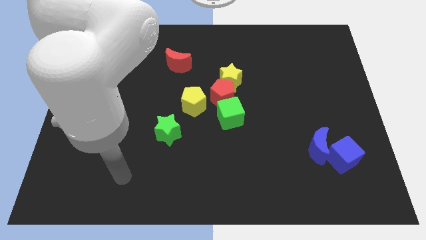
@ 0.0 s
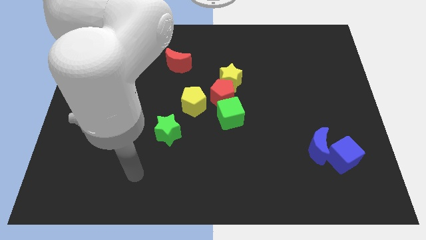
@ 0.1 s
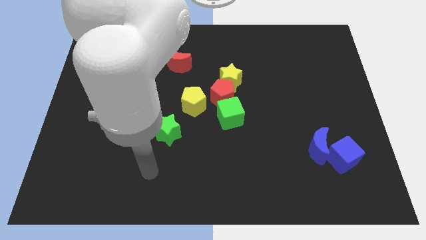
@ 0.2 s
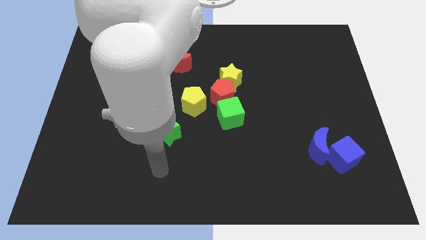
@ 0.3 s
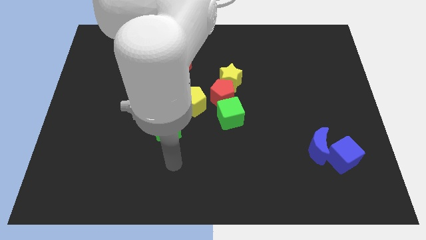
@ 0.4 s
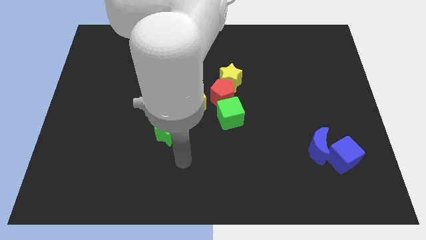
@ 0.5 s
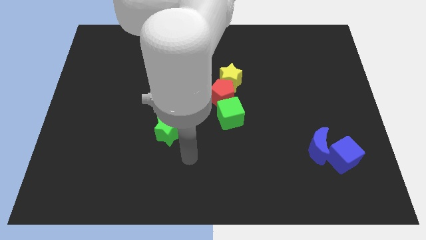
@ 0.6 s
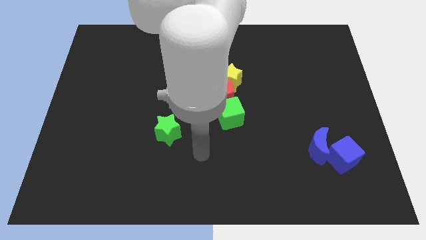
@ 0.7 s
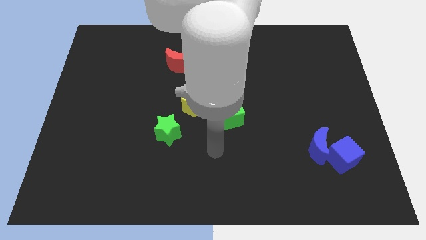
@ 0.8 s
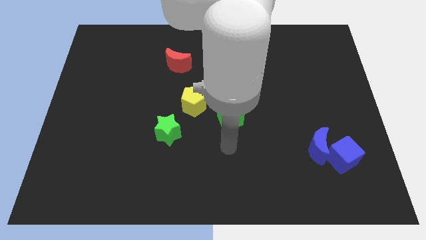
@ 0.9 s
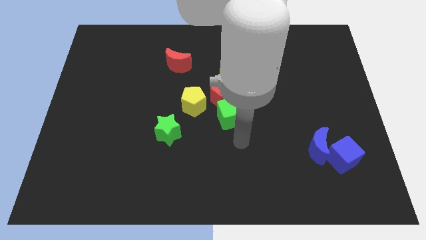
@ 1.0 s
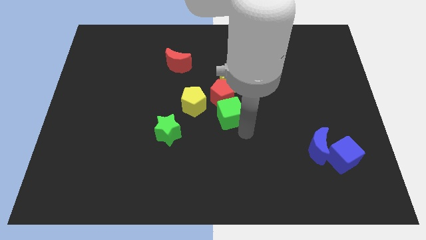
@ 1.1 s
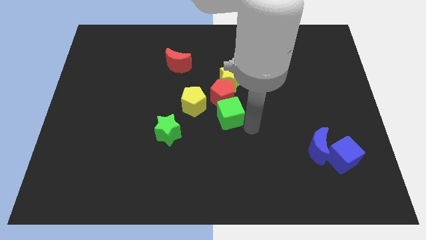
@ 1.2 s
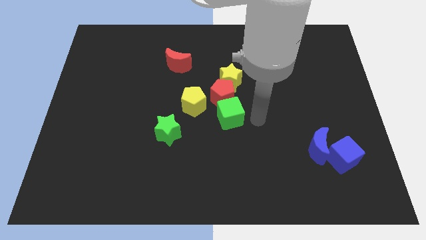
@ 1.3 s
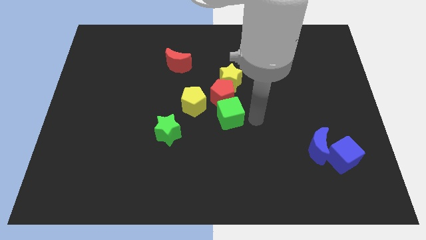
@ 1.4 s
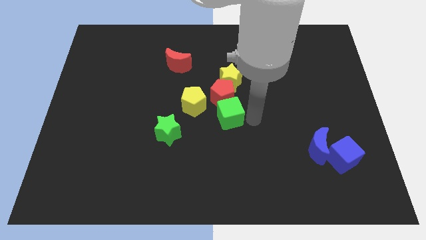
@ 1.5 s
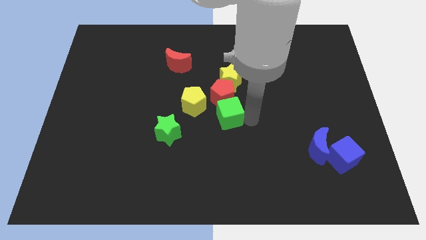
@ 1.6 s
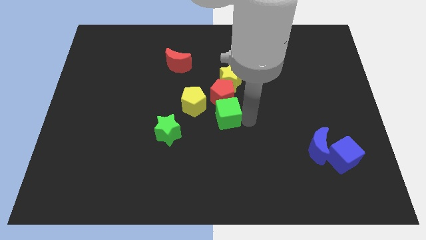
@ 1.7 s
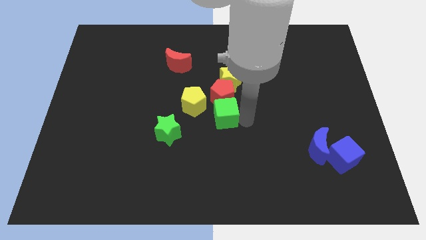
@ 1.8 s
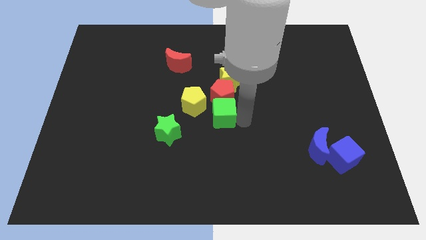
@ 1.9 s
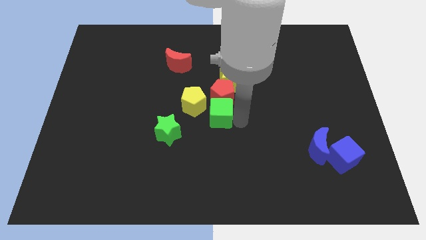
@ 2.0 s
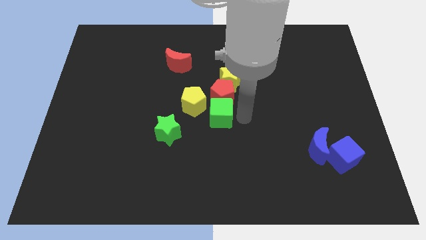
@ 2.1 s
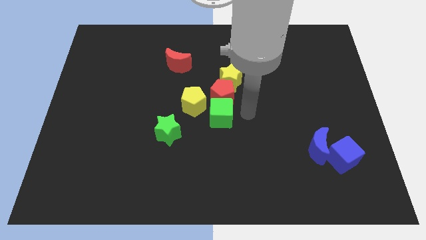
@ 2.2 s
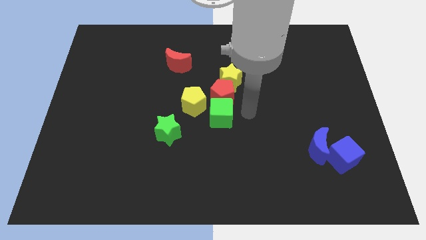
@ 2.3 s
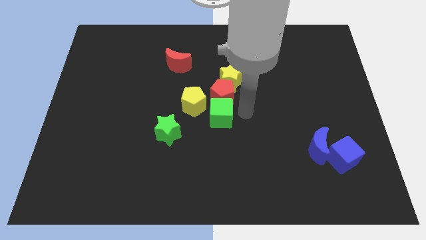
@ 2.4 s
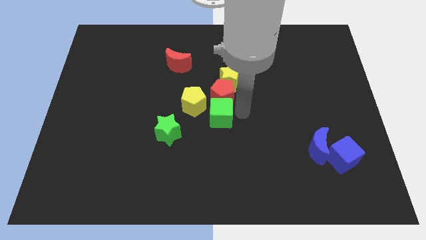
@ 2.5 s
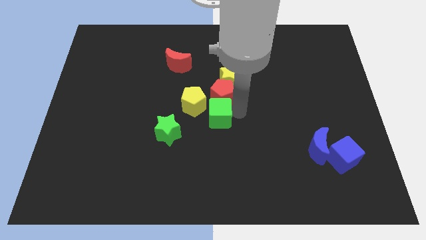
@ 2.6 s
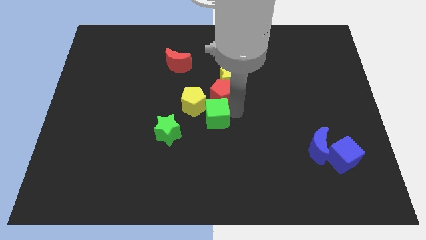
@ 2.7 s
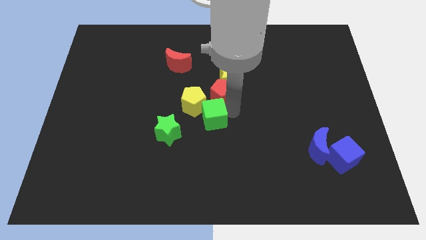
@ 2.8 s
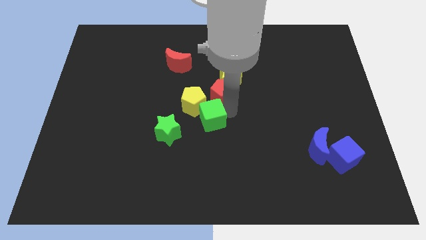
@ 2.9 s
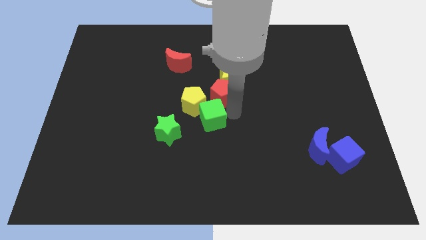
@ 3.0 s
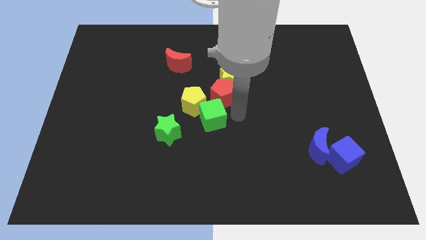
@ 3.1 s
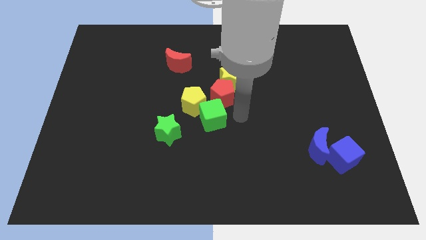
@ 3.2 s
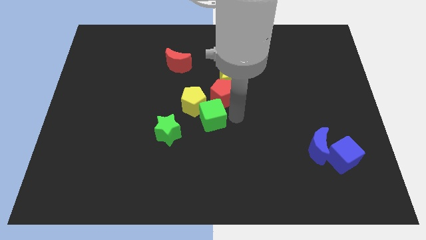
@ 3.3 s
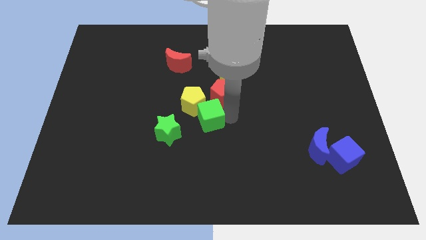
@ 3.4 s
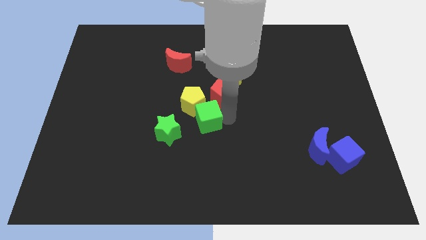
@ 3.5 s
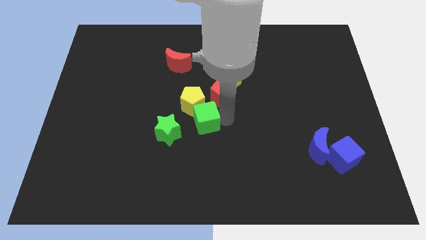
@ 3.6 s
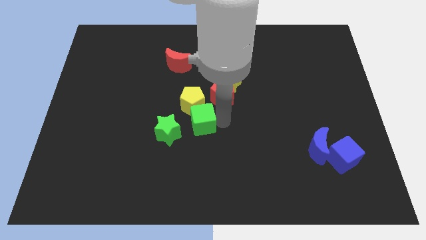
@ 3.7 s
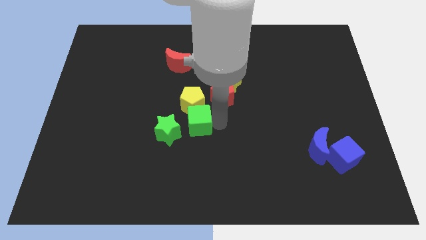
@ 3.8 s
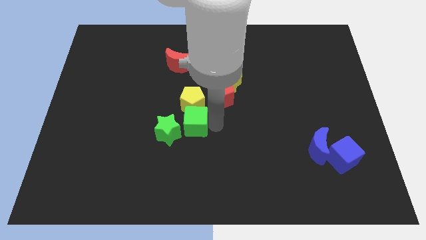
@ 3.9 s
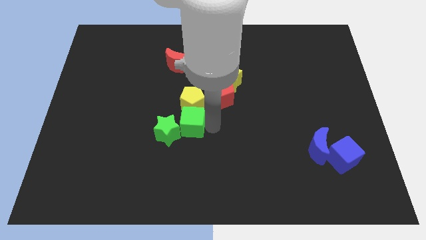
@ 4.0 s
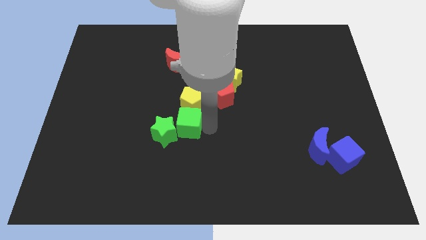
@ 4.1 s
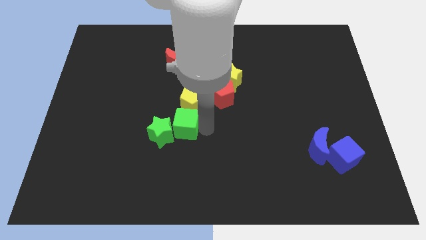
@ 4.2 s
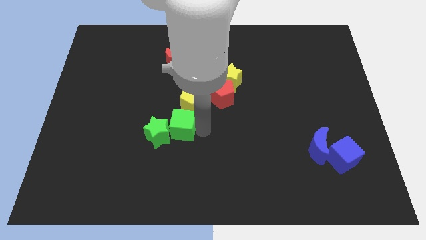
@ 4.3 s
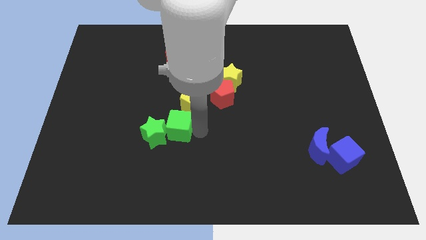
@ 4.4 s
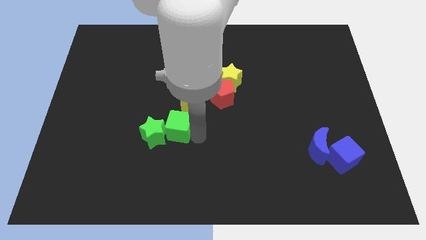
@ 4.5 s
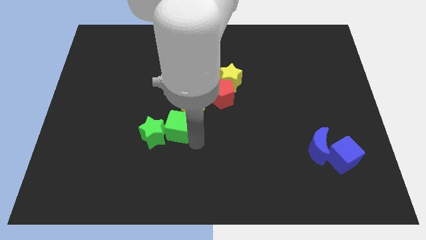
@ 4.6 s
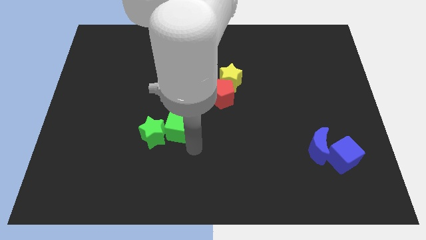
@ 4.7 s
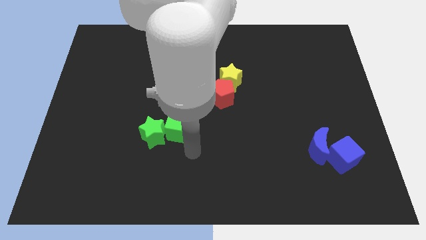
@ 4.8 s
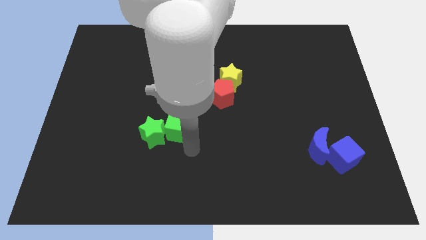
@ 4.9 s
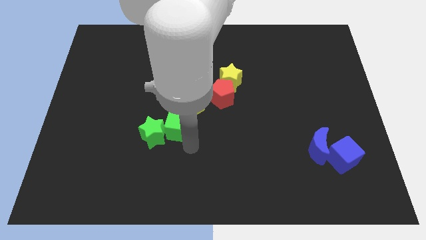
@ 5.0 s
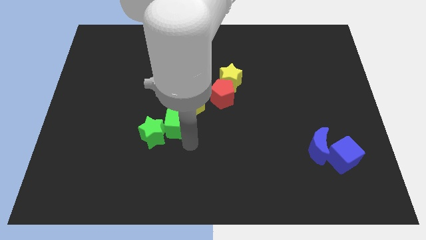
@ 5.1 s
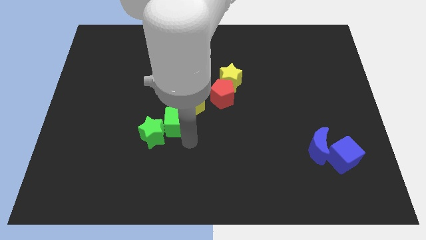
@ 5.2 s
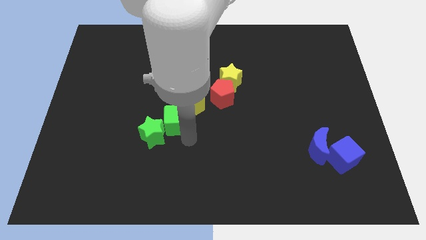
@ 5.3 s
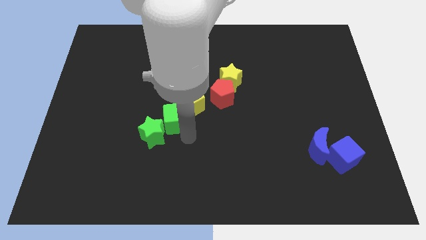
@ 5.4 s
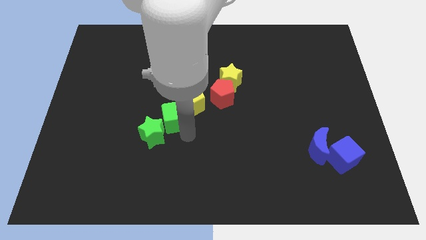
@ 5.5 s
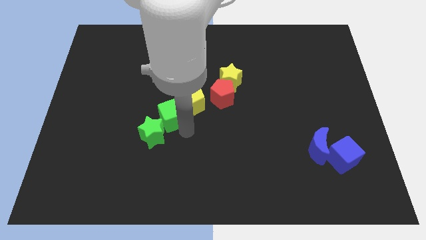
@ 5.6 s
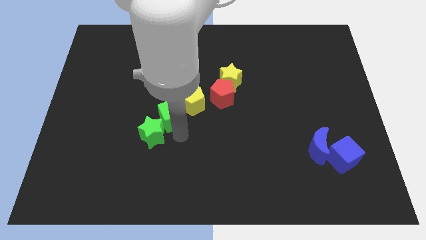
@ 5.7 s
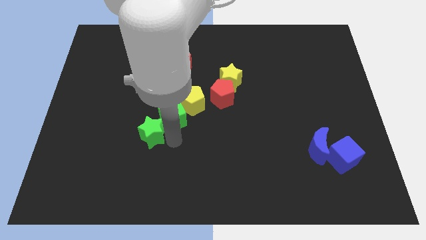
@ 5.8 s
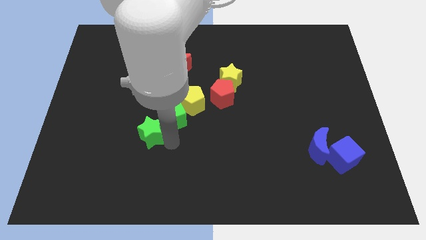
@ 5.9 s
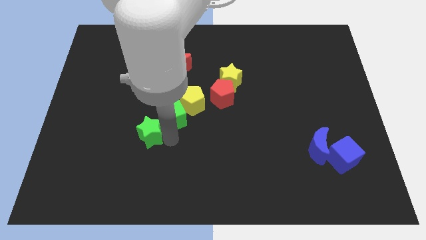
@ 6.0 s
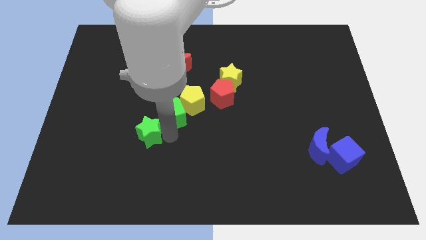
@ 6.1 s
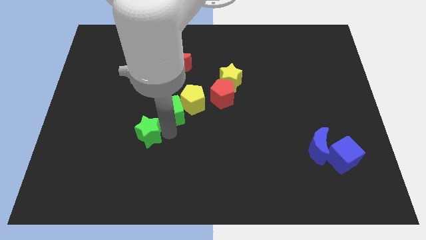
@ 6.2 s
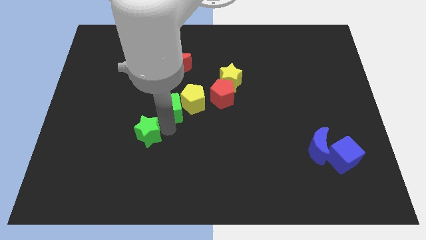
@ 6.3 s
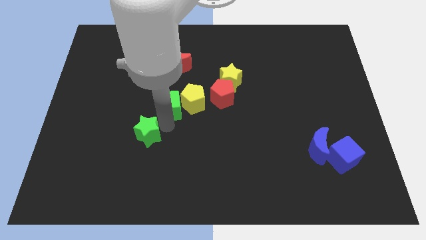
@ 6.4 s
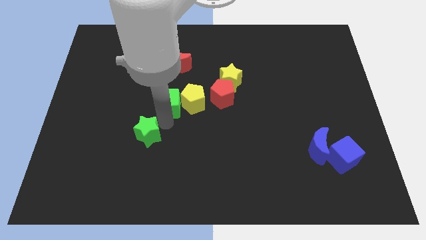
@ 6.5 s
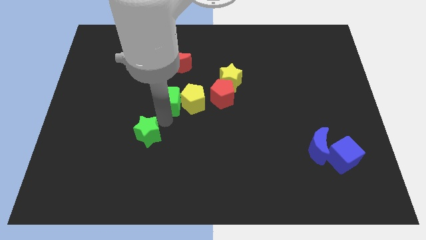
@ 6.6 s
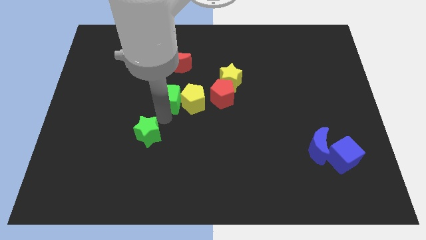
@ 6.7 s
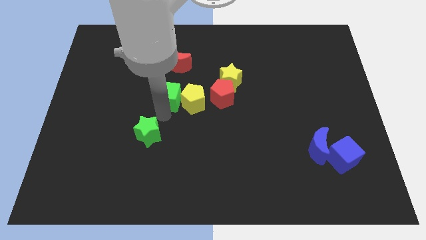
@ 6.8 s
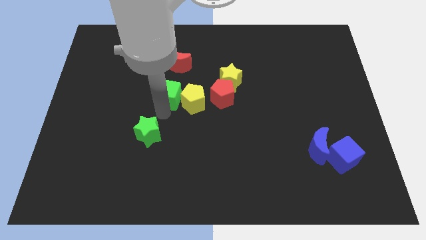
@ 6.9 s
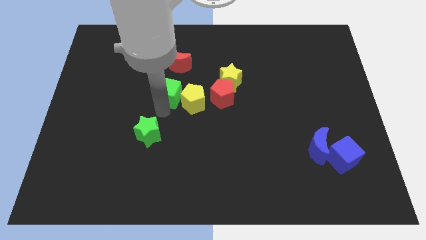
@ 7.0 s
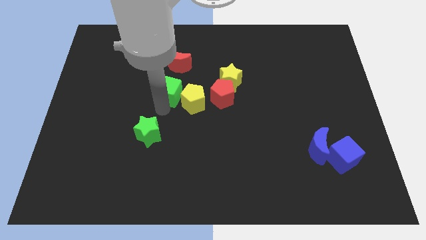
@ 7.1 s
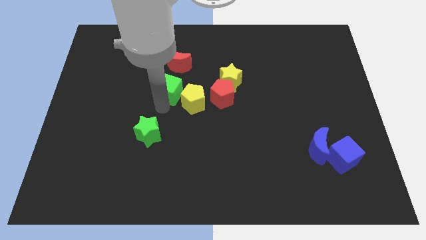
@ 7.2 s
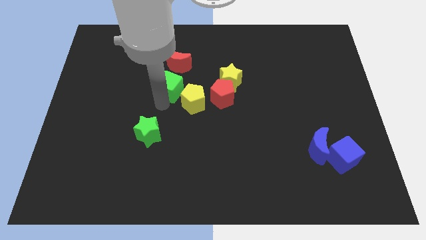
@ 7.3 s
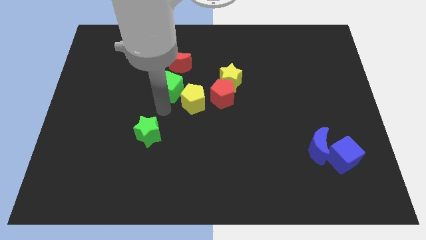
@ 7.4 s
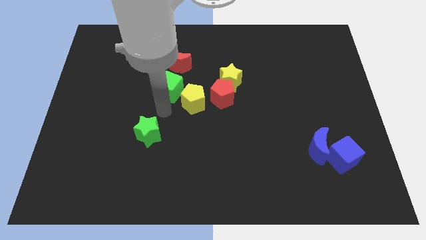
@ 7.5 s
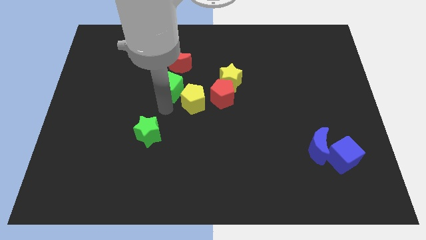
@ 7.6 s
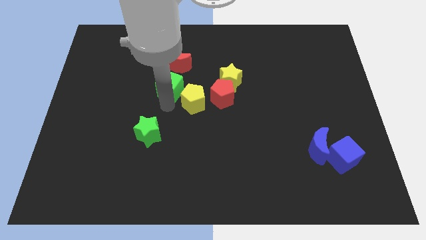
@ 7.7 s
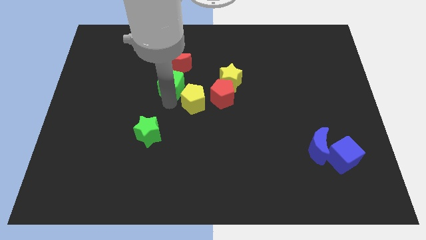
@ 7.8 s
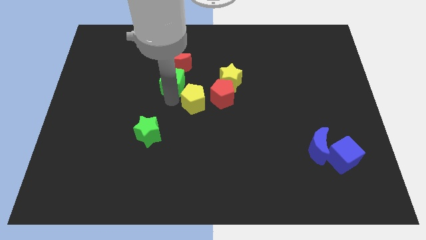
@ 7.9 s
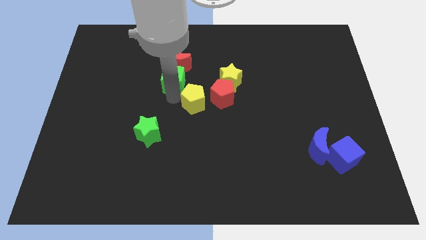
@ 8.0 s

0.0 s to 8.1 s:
push the green cube to the red moon

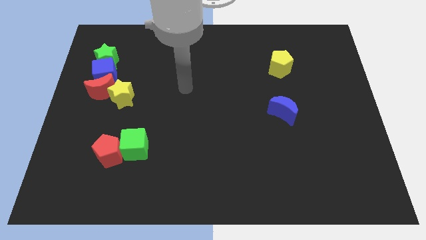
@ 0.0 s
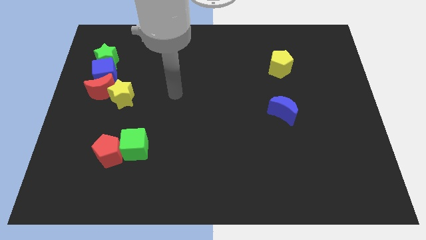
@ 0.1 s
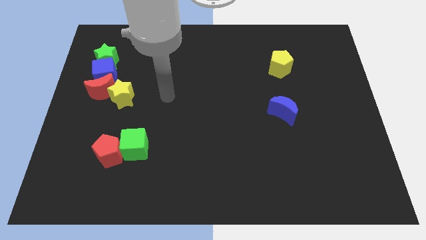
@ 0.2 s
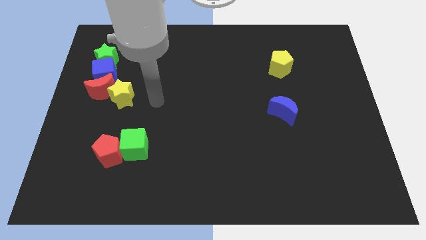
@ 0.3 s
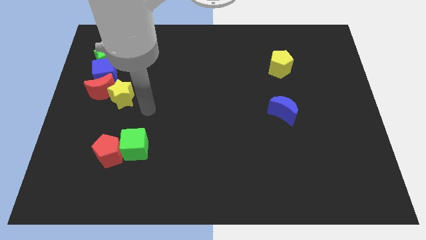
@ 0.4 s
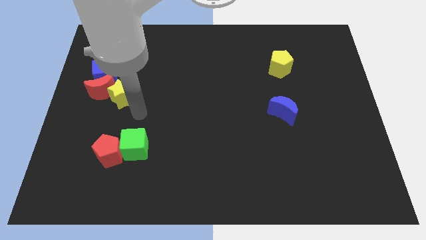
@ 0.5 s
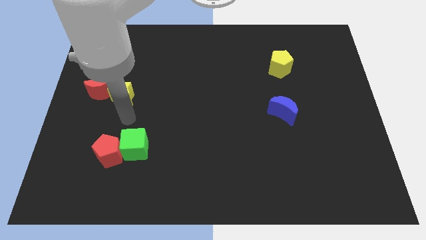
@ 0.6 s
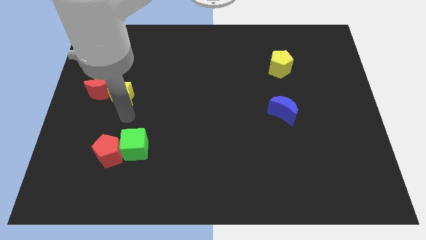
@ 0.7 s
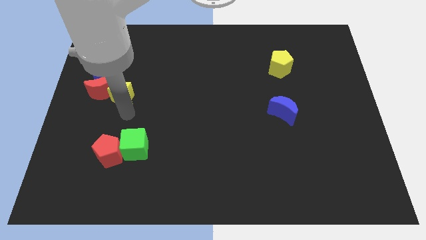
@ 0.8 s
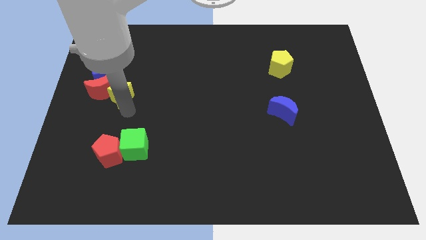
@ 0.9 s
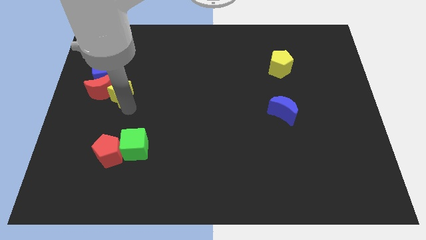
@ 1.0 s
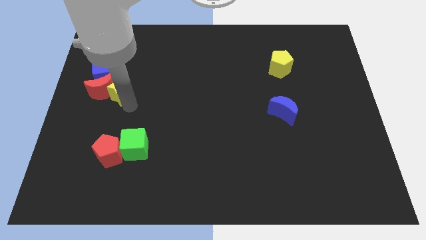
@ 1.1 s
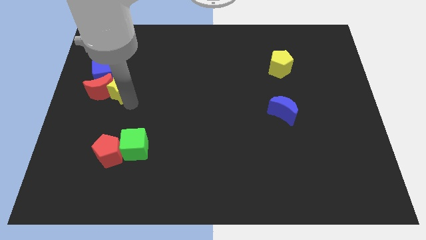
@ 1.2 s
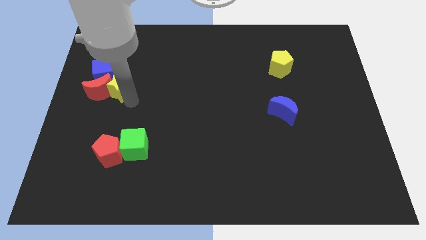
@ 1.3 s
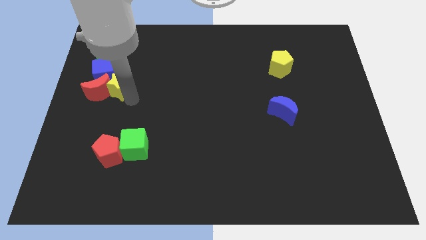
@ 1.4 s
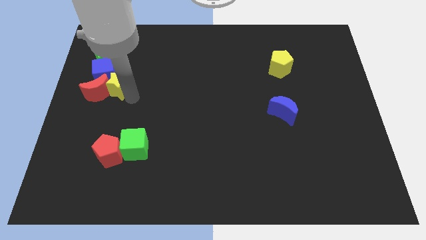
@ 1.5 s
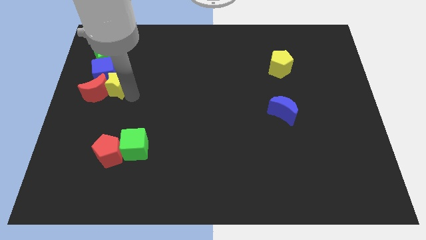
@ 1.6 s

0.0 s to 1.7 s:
push the yellow star next to the blue cube
